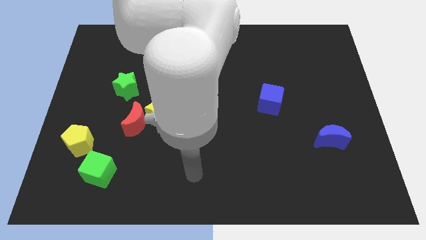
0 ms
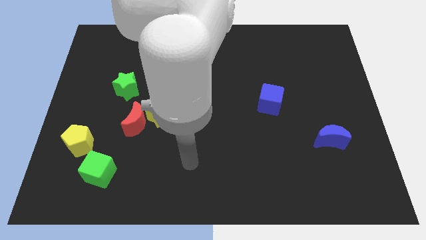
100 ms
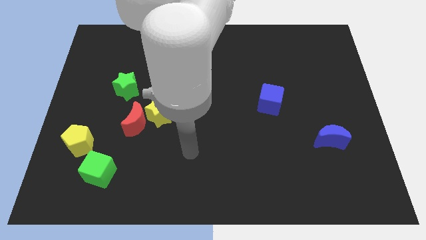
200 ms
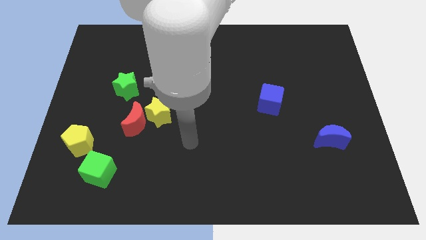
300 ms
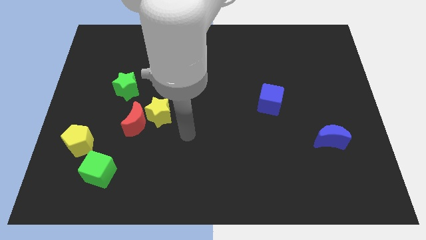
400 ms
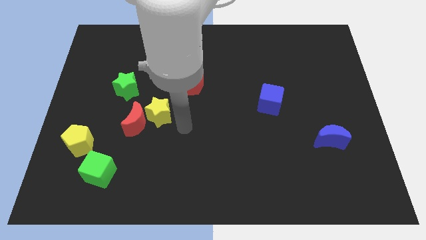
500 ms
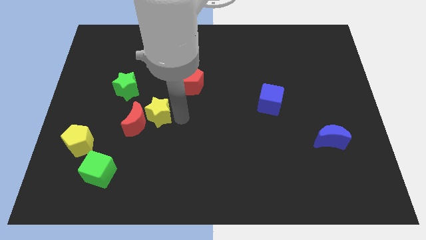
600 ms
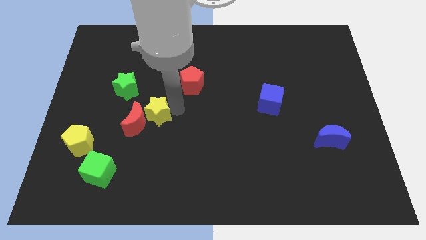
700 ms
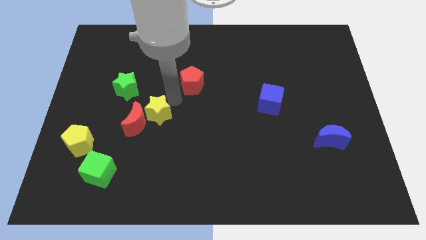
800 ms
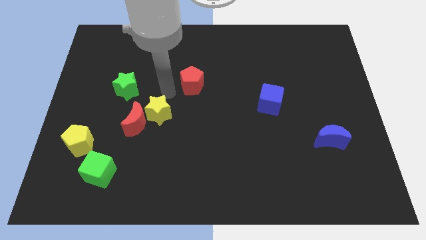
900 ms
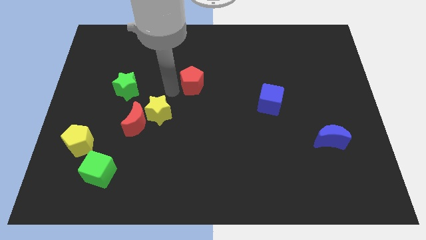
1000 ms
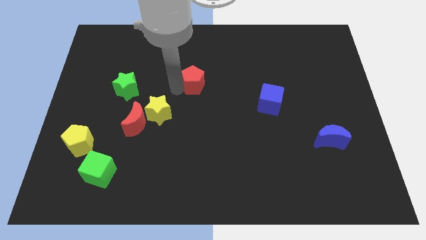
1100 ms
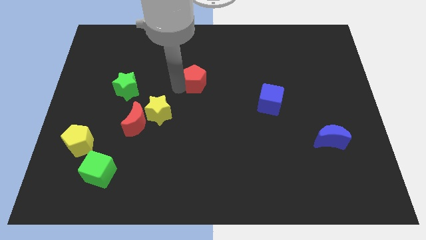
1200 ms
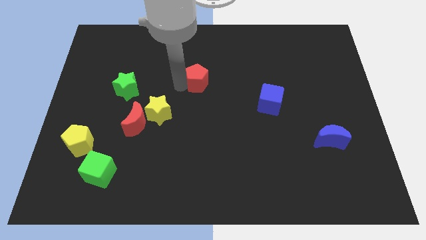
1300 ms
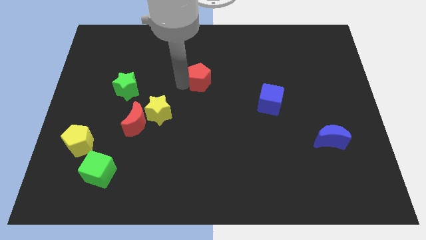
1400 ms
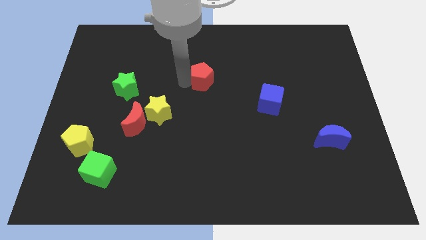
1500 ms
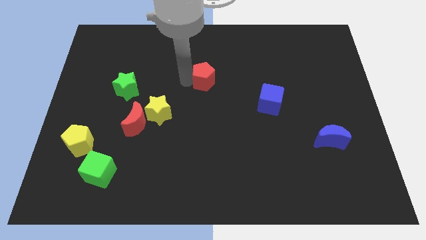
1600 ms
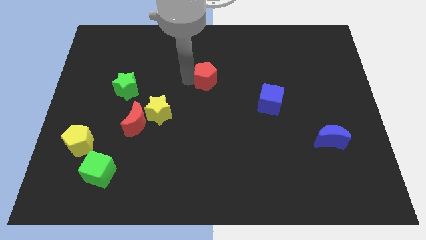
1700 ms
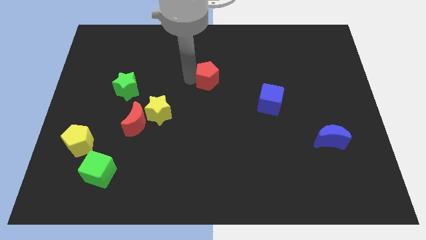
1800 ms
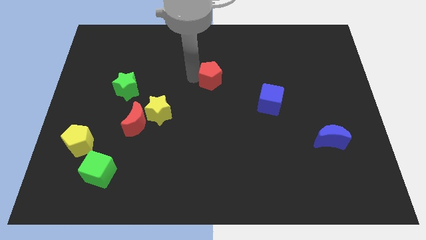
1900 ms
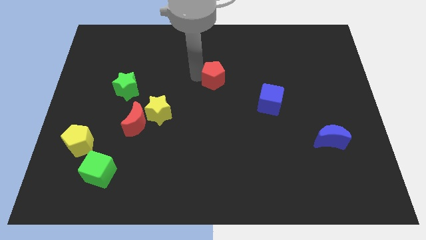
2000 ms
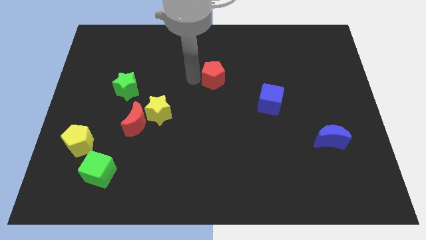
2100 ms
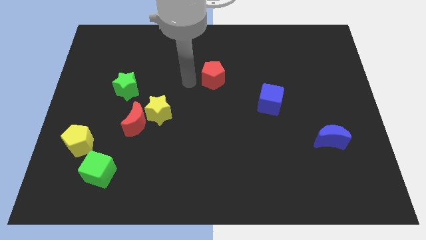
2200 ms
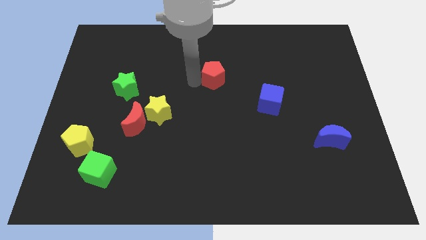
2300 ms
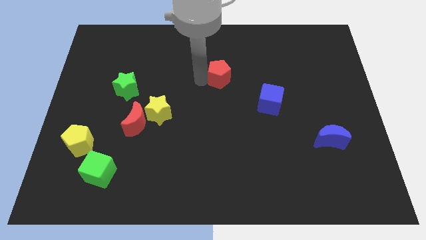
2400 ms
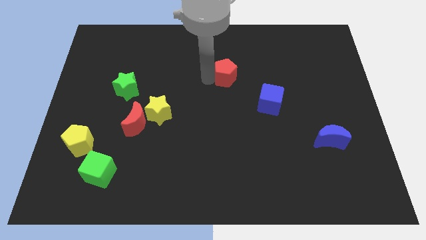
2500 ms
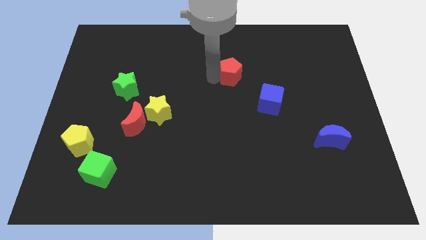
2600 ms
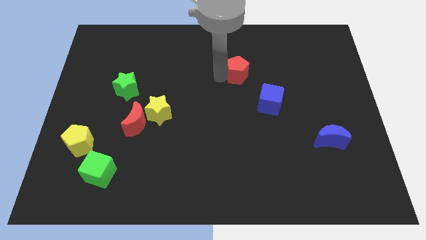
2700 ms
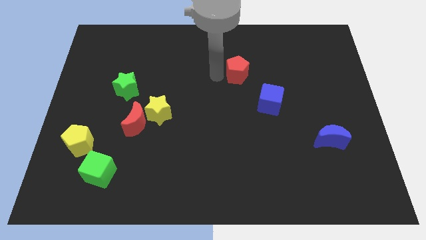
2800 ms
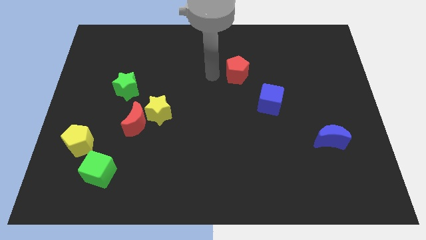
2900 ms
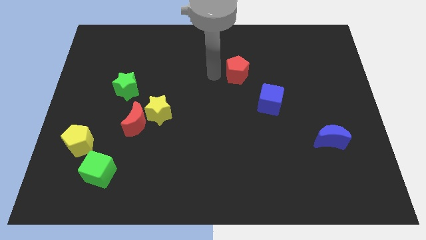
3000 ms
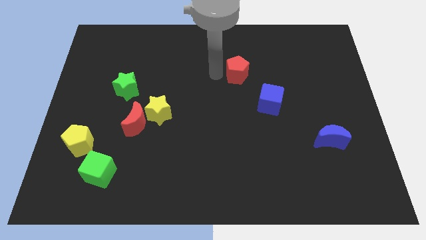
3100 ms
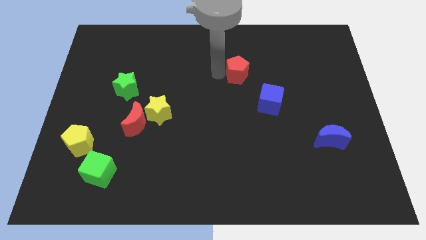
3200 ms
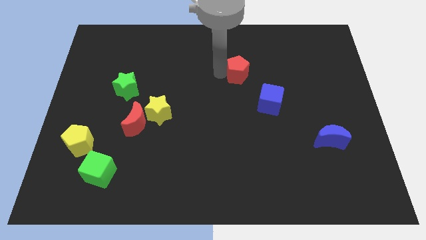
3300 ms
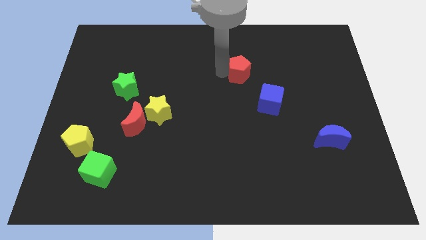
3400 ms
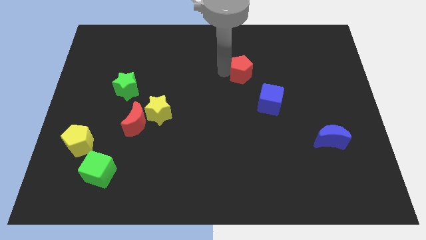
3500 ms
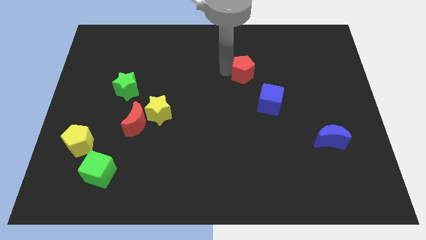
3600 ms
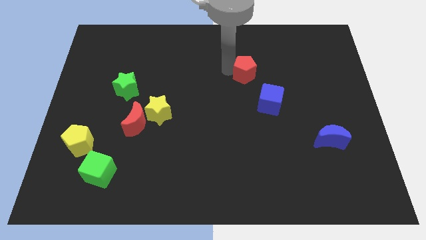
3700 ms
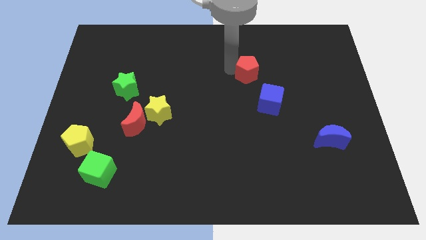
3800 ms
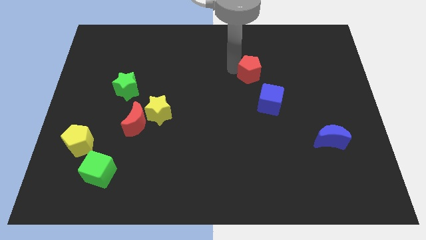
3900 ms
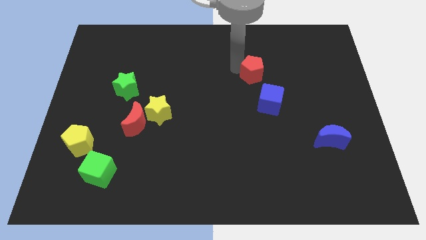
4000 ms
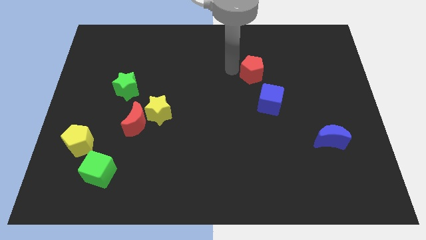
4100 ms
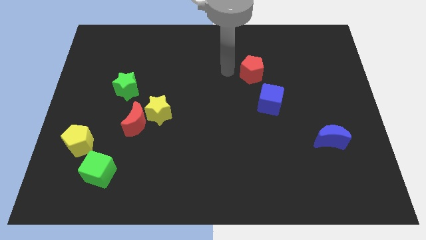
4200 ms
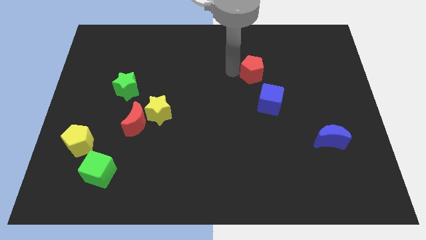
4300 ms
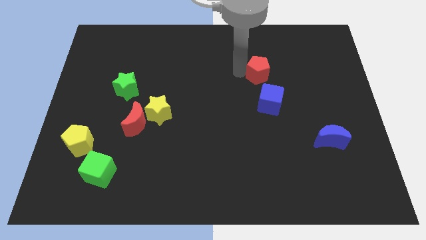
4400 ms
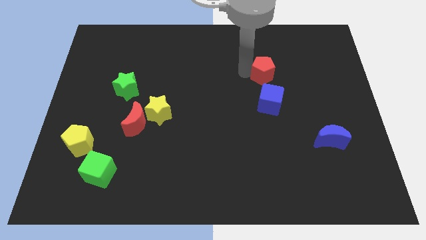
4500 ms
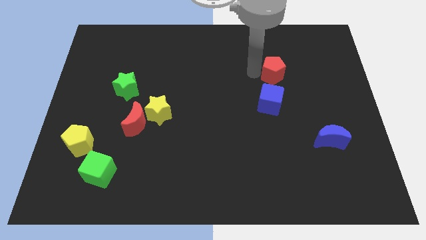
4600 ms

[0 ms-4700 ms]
slide the red pentagon right

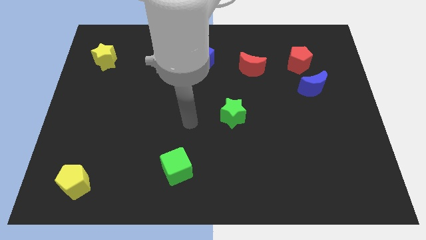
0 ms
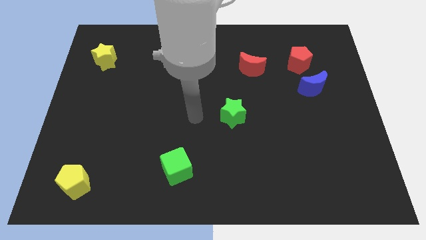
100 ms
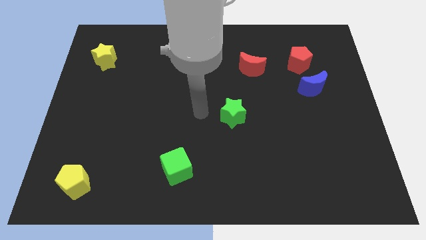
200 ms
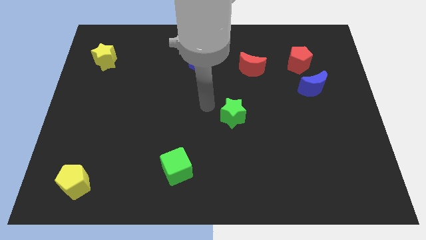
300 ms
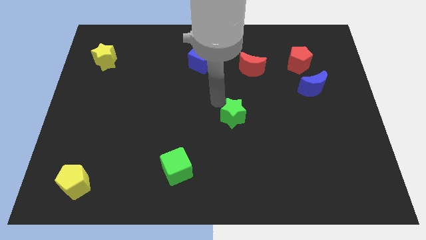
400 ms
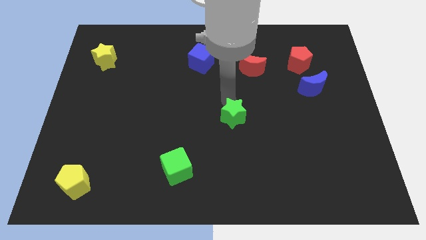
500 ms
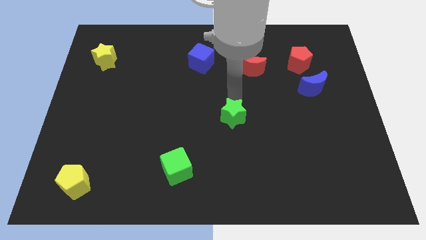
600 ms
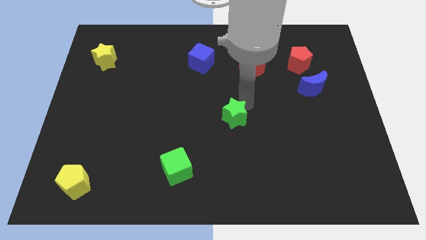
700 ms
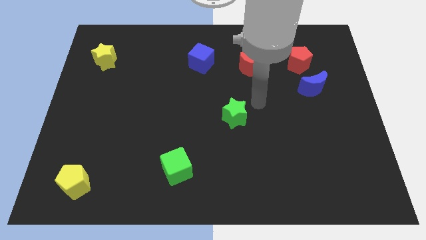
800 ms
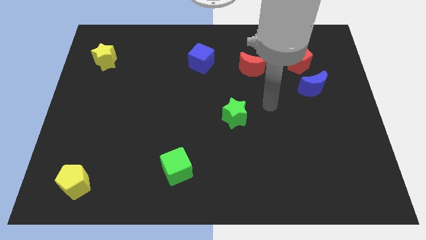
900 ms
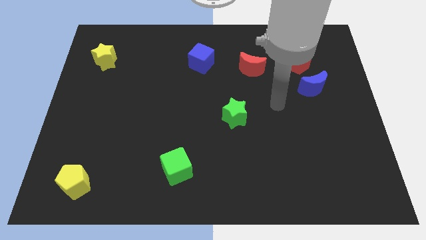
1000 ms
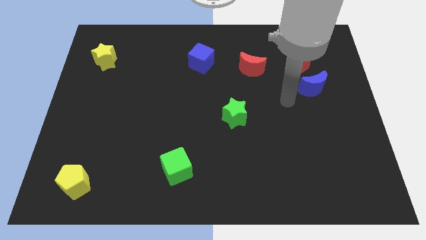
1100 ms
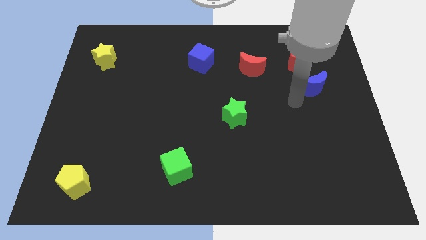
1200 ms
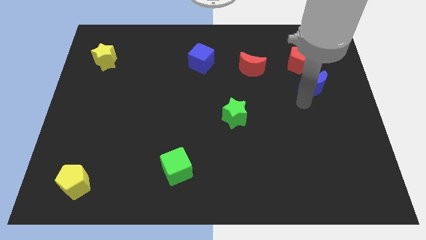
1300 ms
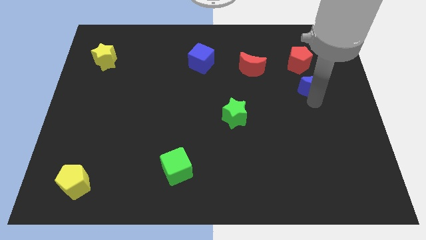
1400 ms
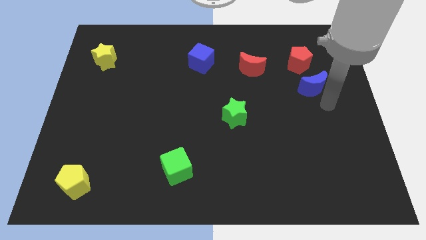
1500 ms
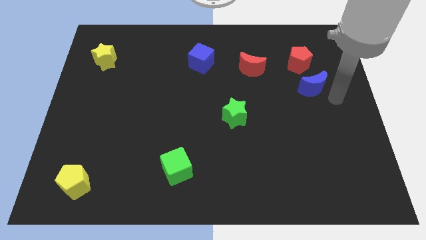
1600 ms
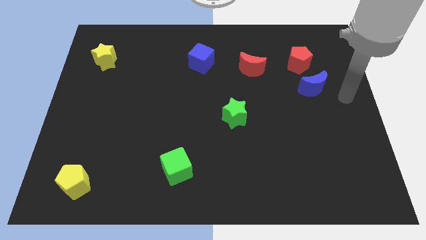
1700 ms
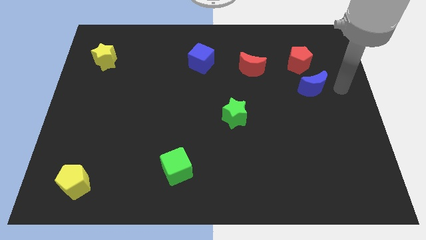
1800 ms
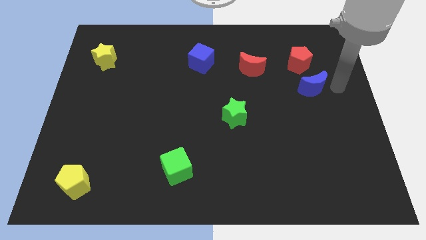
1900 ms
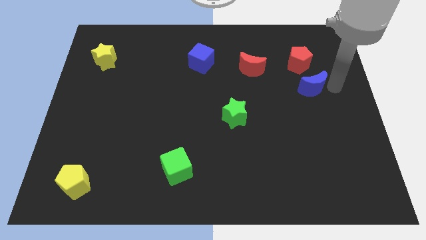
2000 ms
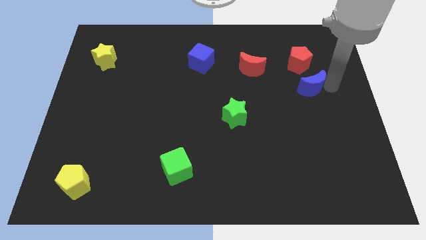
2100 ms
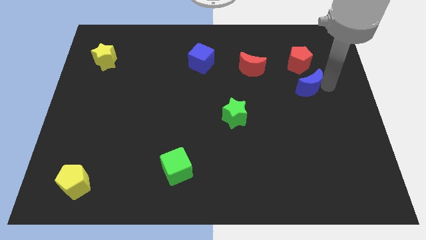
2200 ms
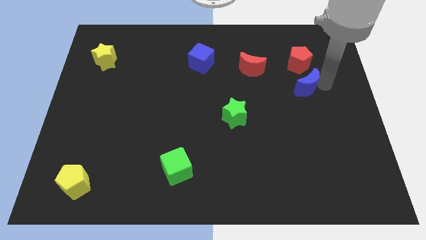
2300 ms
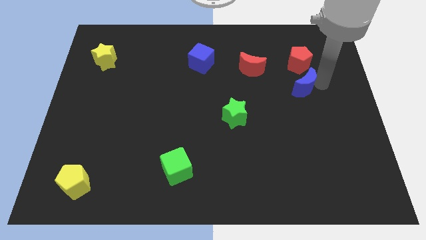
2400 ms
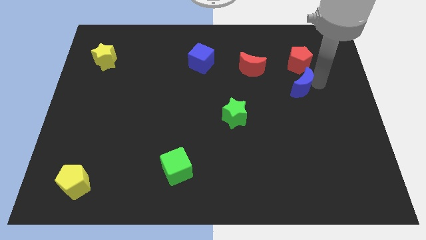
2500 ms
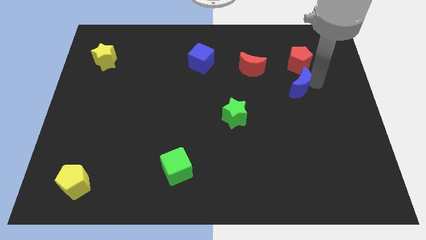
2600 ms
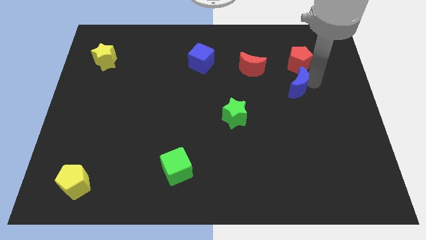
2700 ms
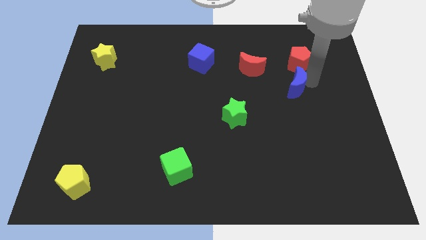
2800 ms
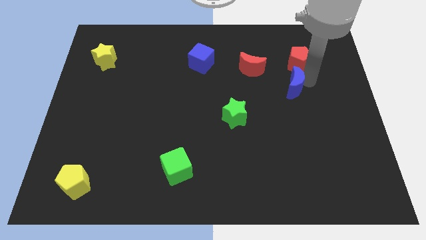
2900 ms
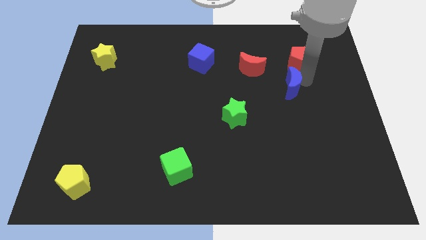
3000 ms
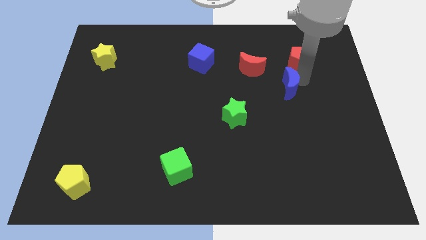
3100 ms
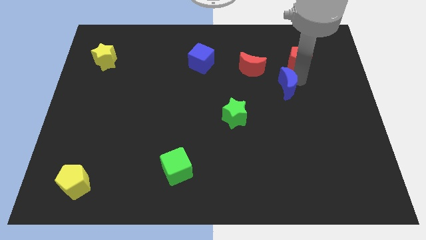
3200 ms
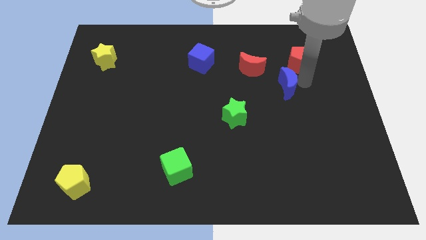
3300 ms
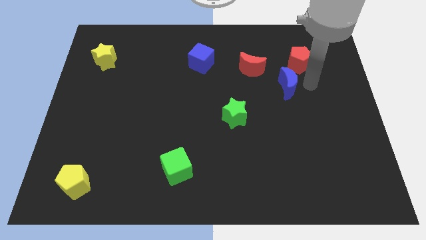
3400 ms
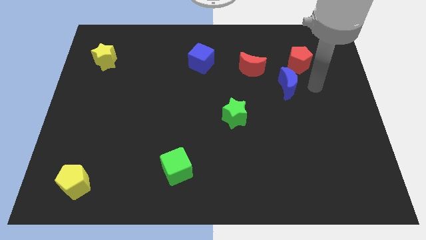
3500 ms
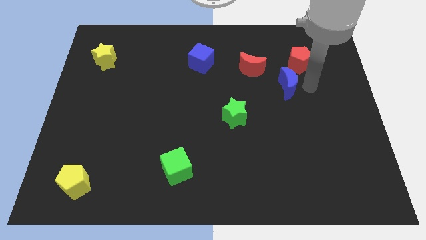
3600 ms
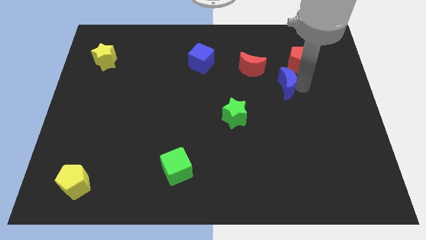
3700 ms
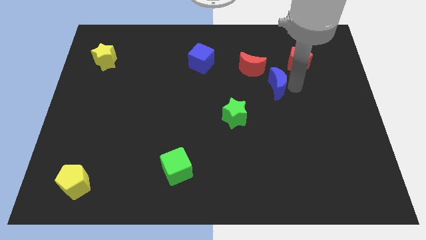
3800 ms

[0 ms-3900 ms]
move the blue moon slightly to the left
